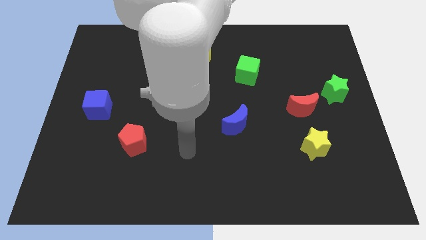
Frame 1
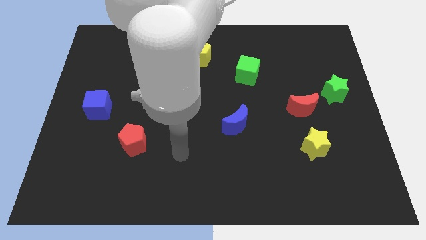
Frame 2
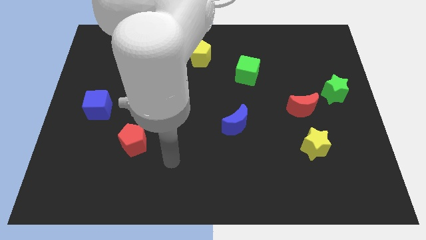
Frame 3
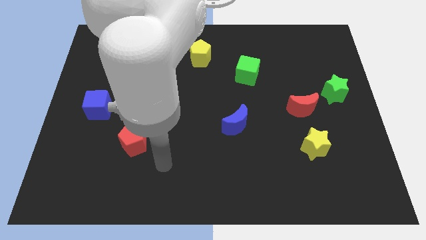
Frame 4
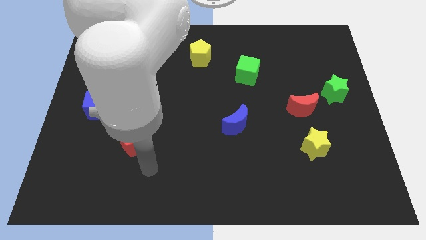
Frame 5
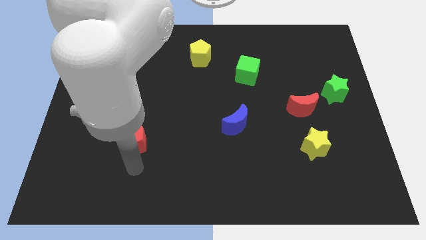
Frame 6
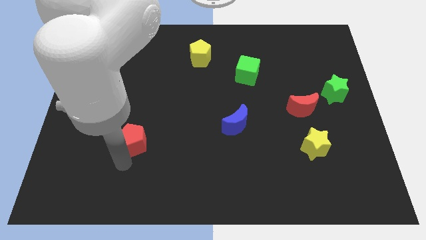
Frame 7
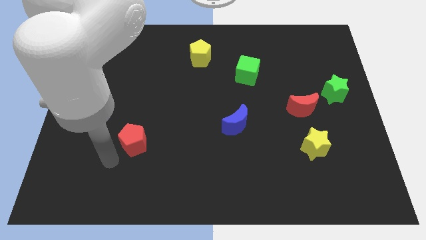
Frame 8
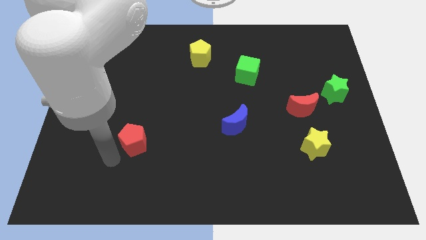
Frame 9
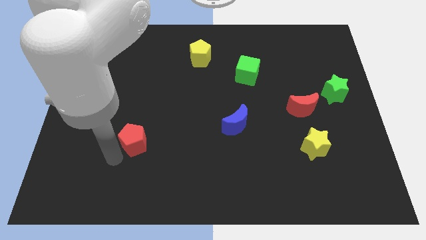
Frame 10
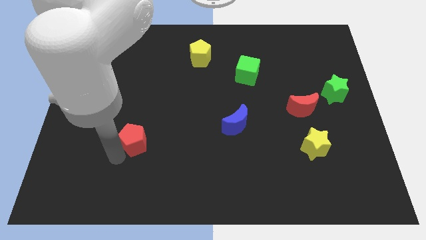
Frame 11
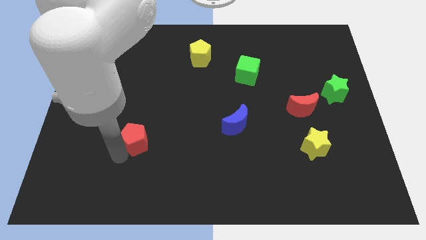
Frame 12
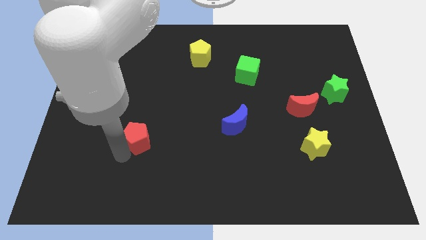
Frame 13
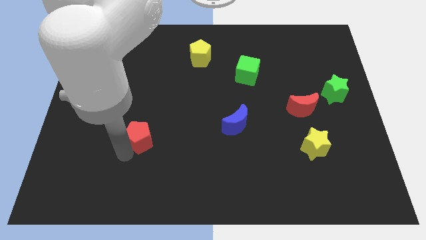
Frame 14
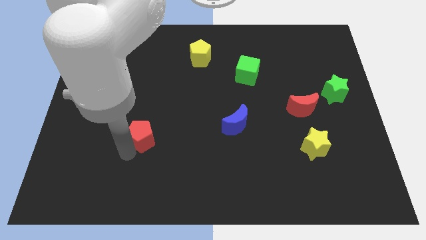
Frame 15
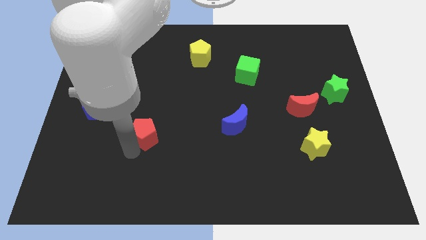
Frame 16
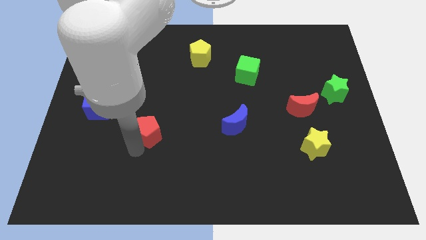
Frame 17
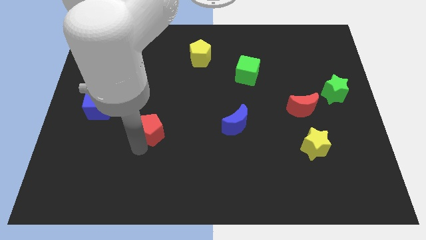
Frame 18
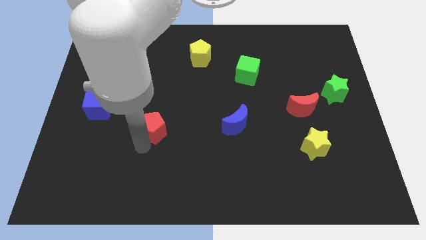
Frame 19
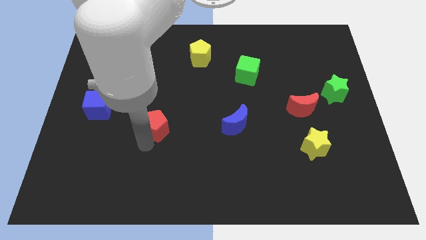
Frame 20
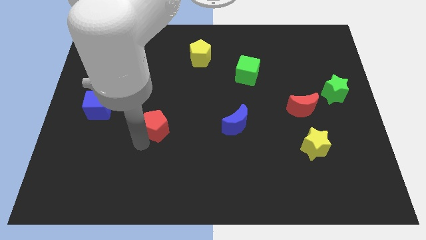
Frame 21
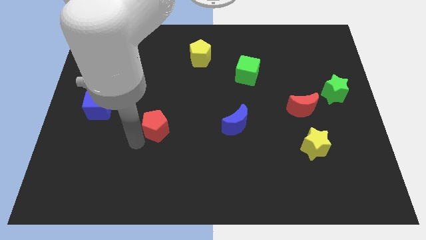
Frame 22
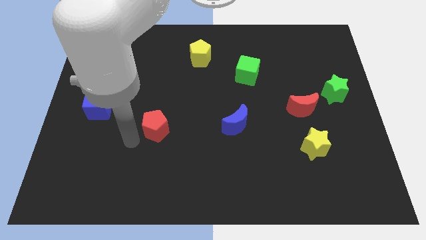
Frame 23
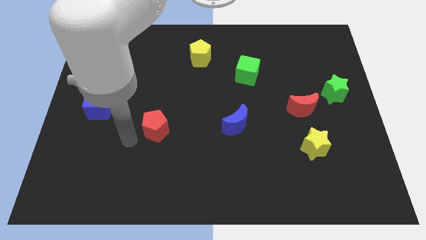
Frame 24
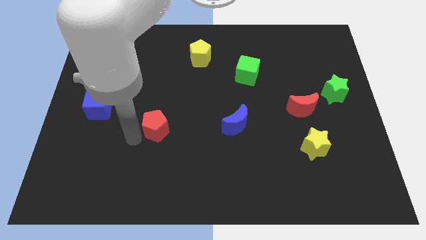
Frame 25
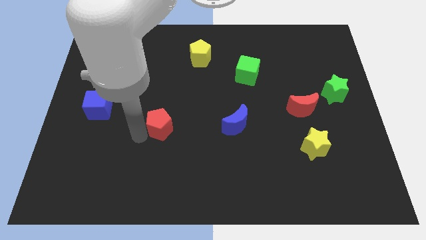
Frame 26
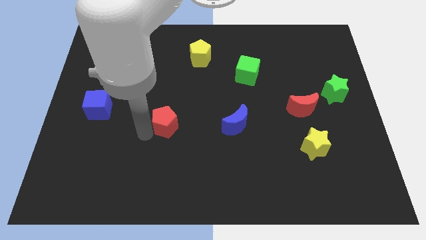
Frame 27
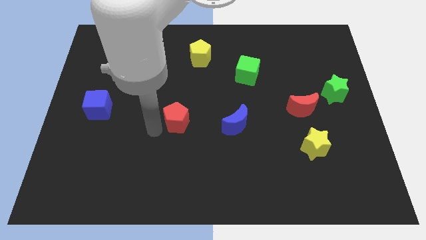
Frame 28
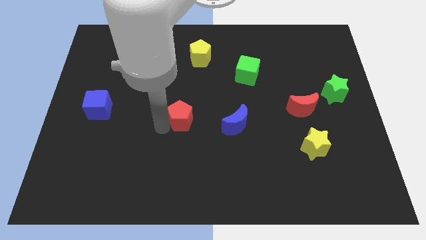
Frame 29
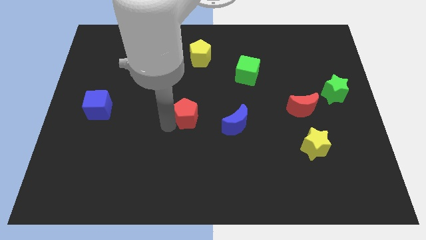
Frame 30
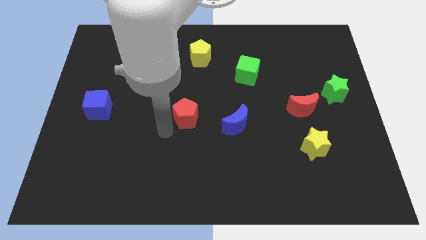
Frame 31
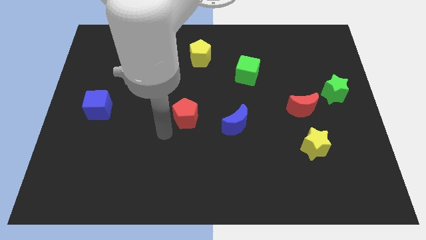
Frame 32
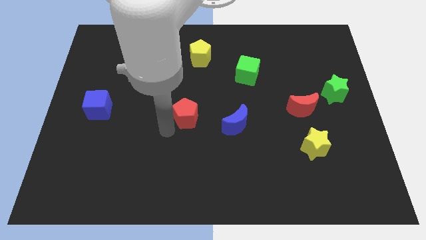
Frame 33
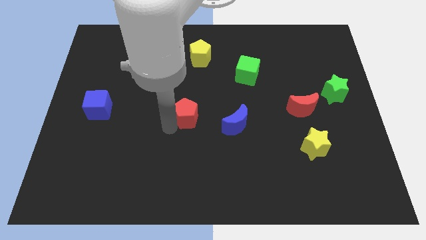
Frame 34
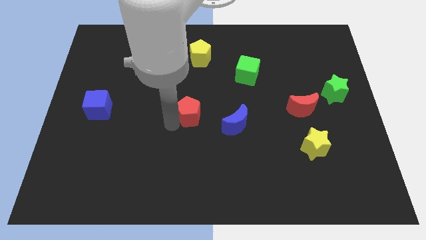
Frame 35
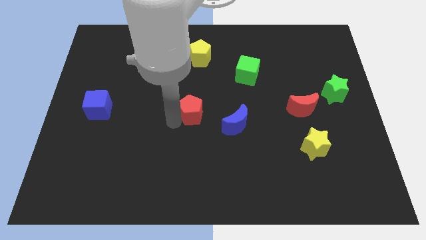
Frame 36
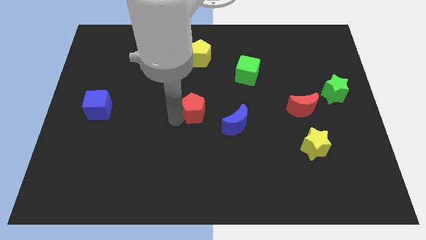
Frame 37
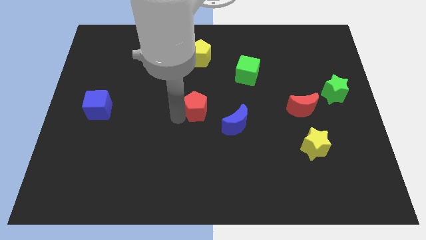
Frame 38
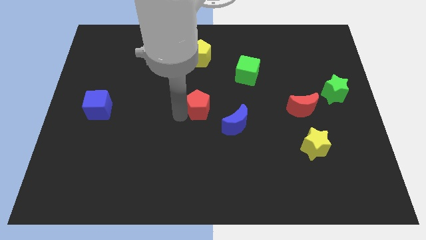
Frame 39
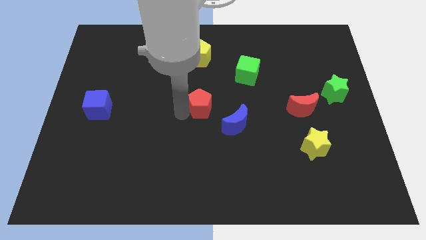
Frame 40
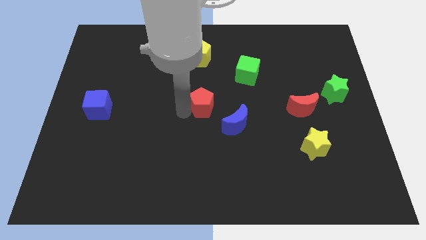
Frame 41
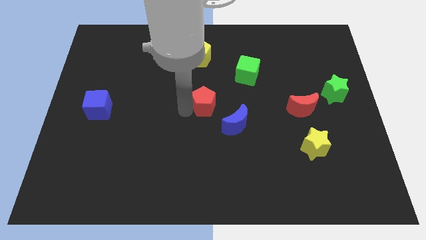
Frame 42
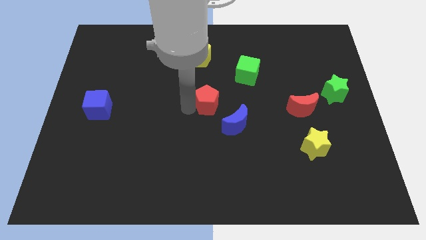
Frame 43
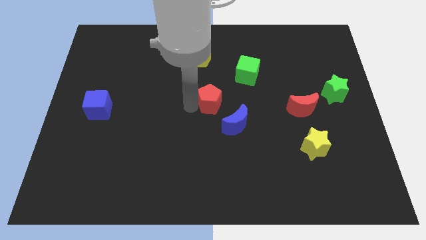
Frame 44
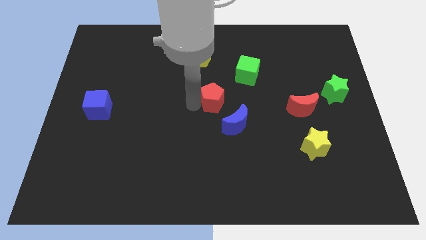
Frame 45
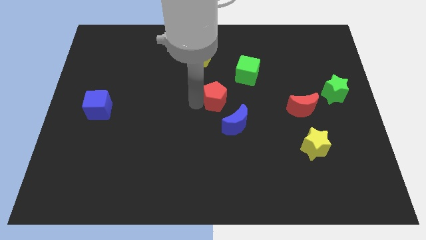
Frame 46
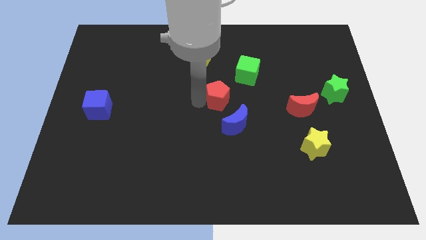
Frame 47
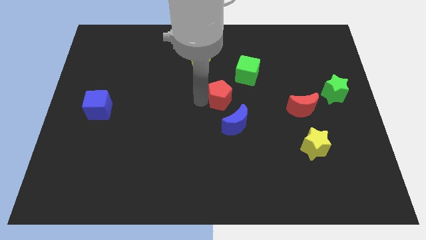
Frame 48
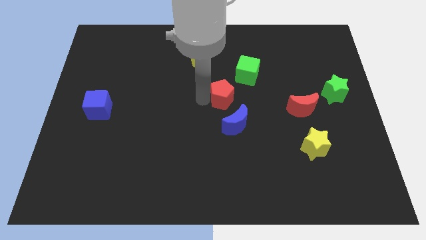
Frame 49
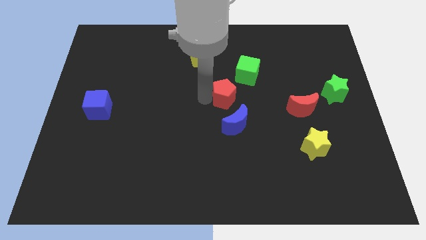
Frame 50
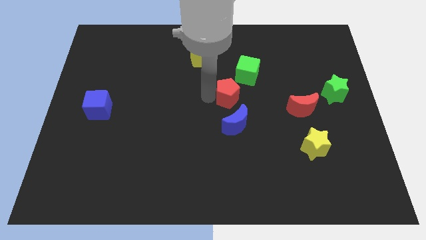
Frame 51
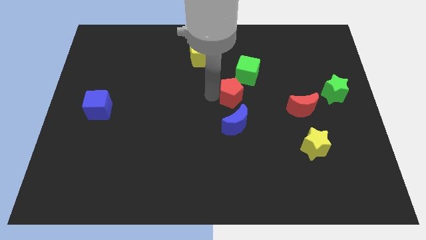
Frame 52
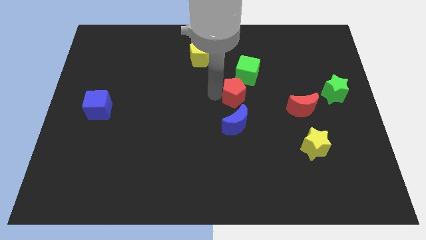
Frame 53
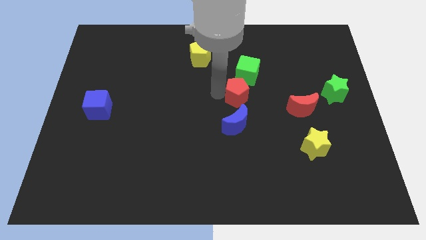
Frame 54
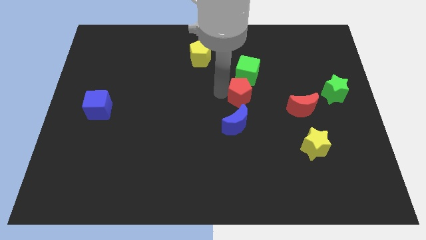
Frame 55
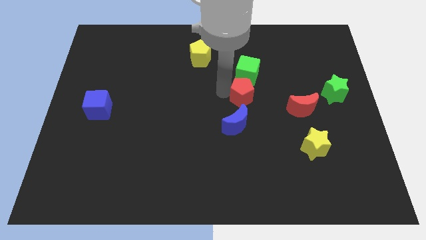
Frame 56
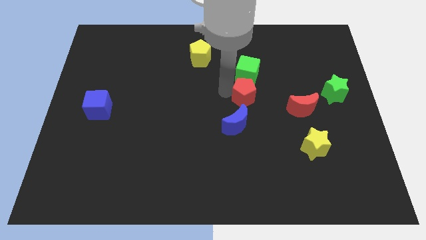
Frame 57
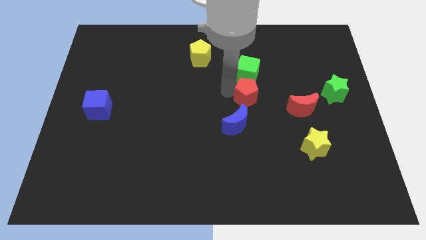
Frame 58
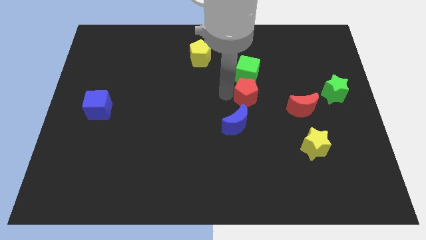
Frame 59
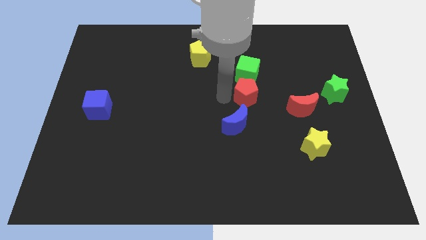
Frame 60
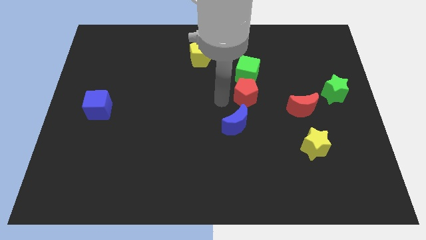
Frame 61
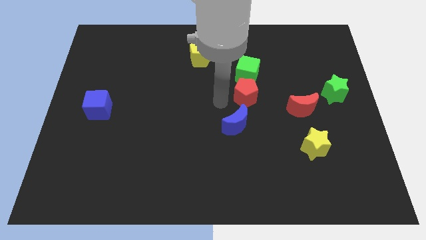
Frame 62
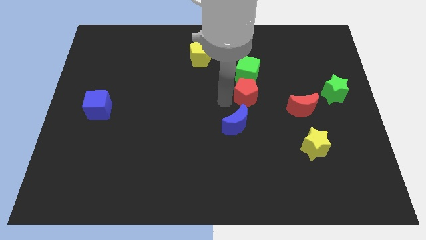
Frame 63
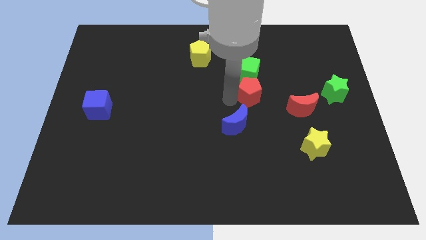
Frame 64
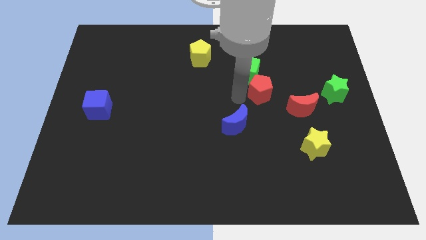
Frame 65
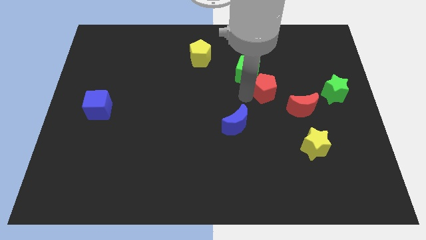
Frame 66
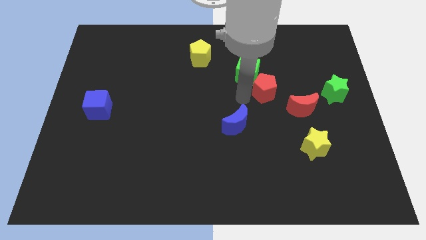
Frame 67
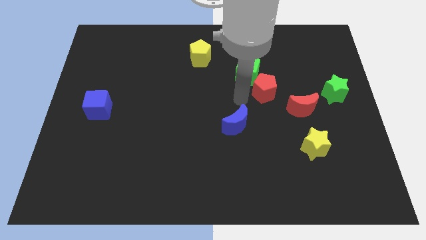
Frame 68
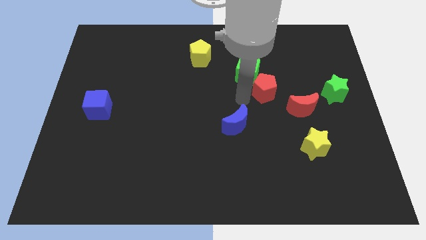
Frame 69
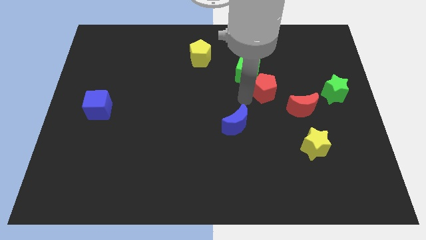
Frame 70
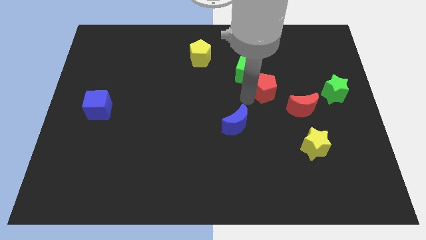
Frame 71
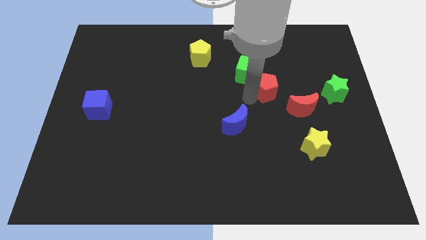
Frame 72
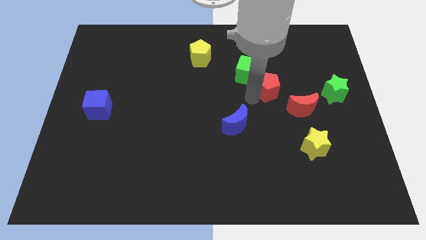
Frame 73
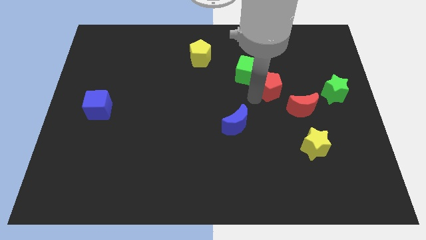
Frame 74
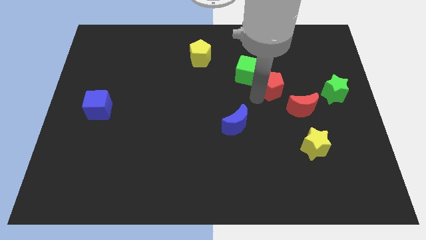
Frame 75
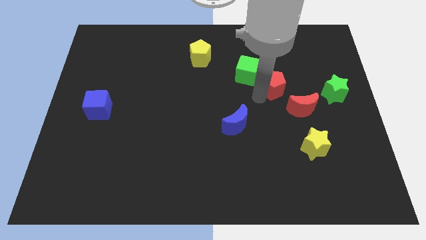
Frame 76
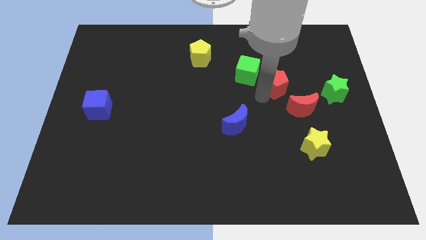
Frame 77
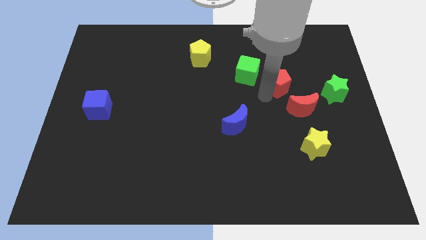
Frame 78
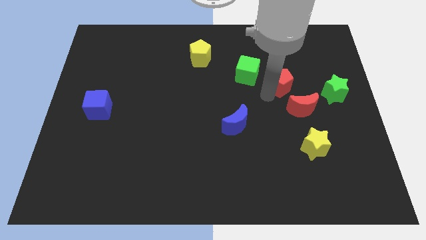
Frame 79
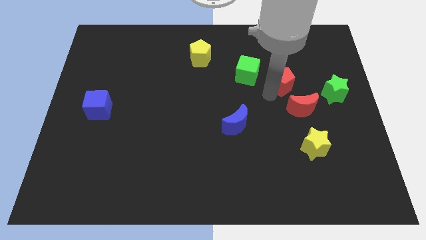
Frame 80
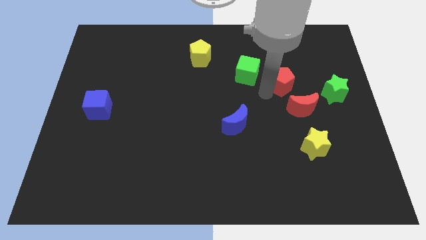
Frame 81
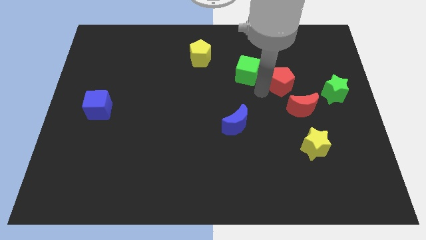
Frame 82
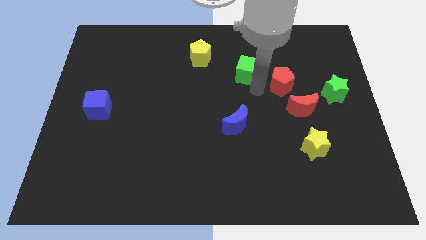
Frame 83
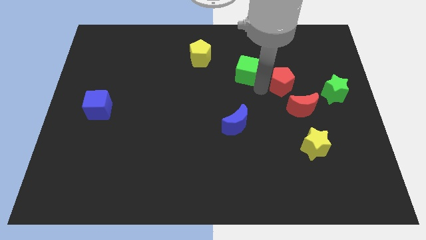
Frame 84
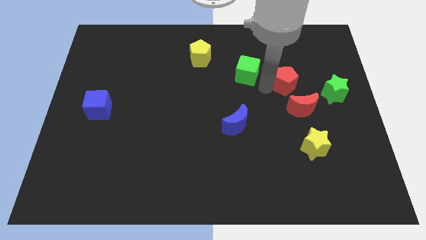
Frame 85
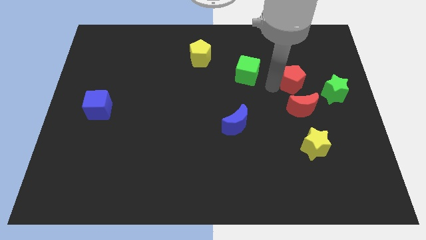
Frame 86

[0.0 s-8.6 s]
move the red pentagon to the top left of the green star
